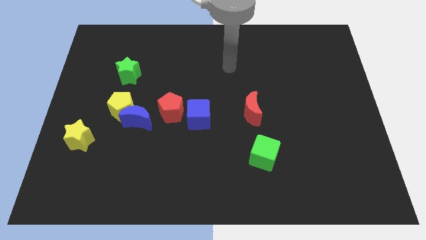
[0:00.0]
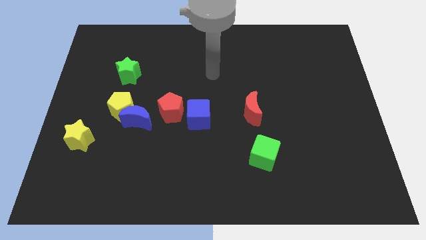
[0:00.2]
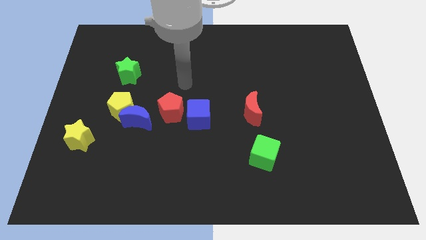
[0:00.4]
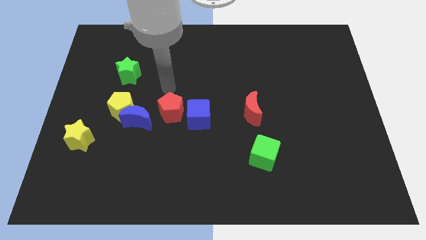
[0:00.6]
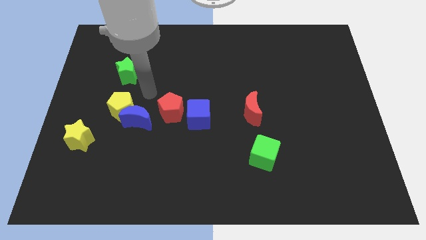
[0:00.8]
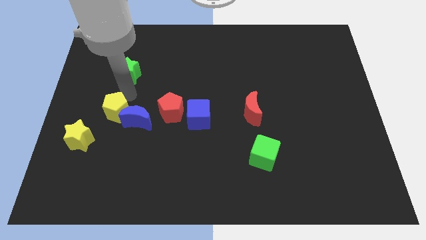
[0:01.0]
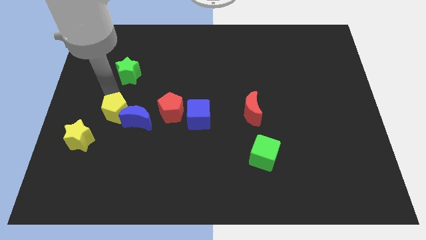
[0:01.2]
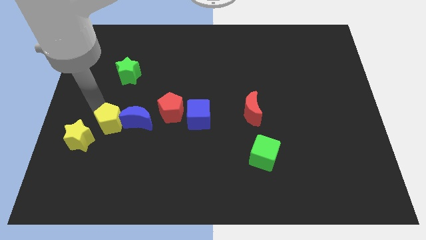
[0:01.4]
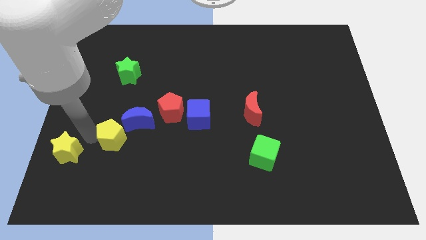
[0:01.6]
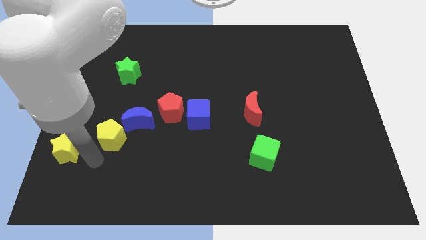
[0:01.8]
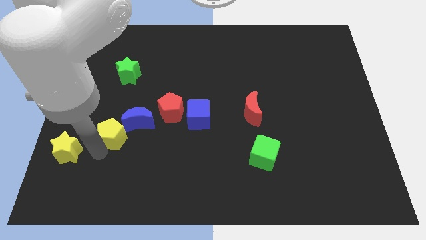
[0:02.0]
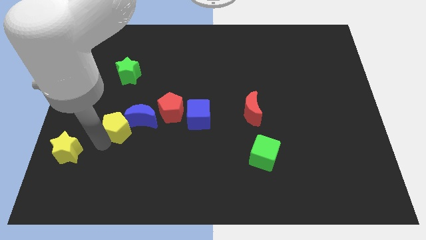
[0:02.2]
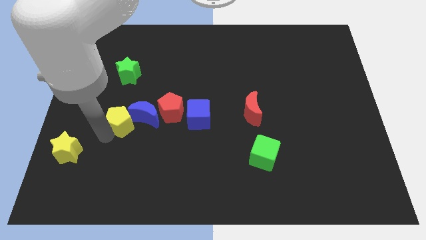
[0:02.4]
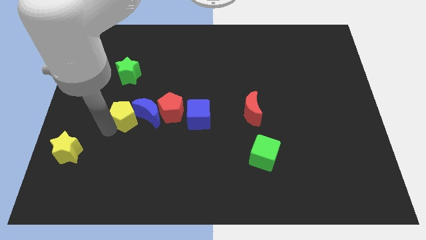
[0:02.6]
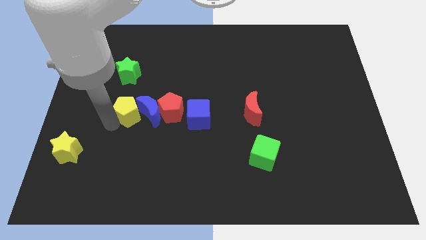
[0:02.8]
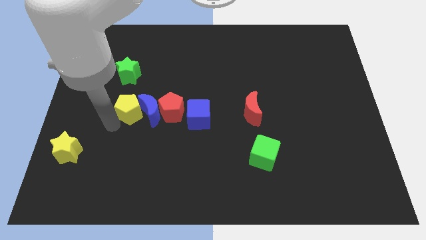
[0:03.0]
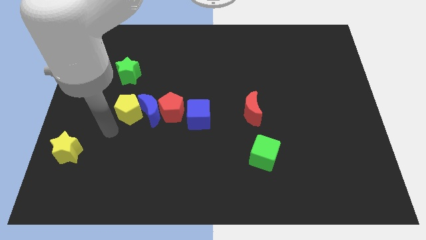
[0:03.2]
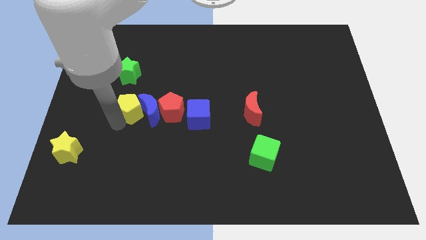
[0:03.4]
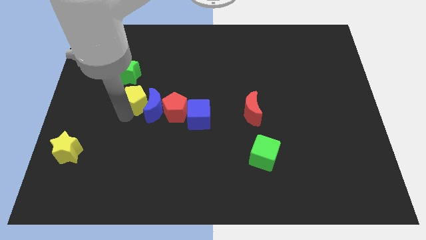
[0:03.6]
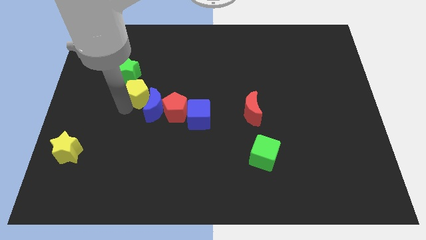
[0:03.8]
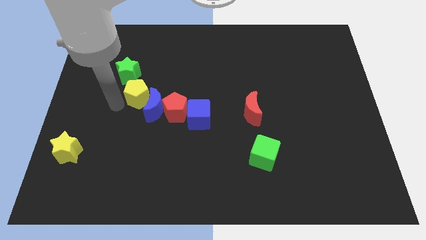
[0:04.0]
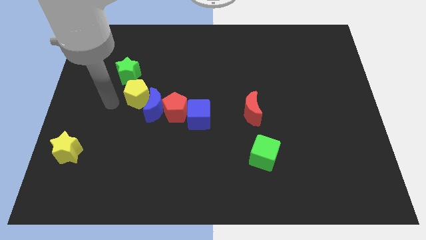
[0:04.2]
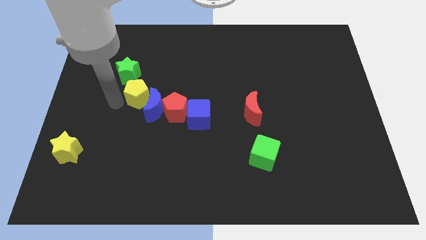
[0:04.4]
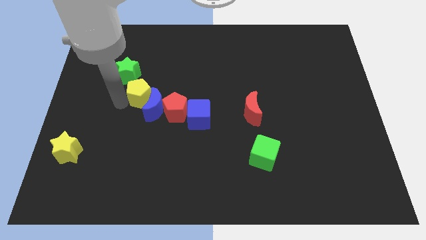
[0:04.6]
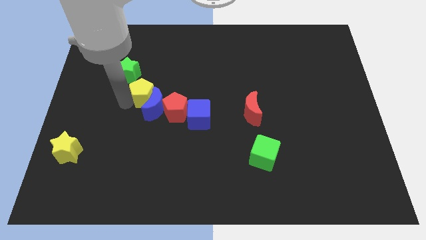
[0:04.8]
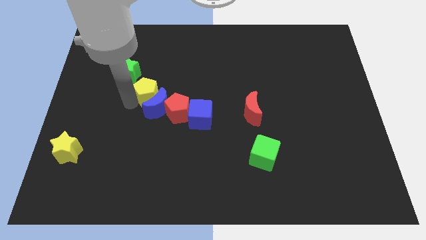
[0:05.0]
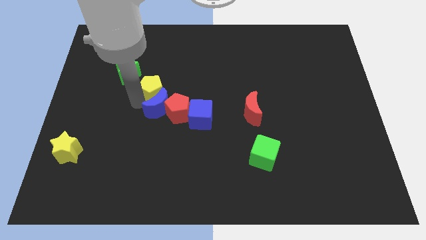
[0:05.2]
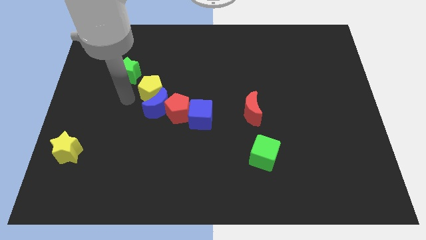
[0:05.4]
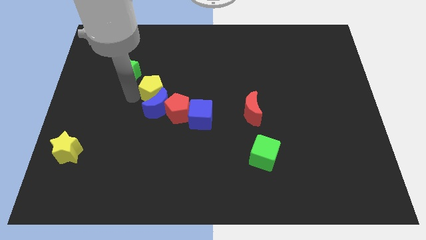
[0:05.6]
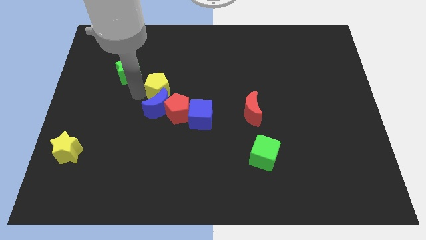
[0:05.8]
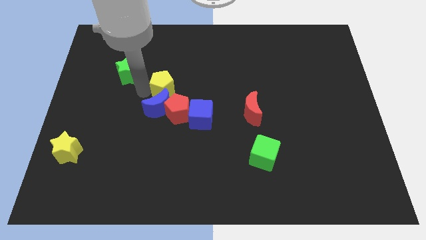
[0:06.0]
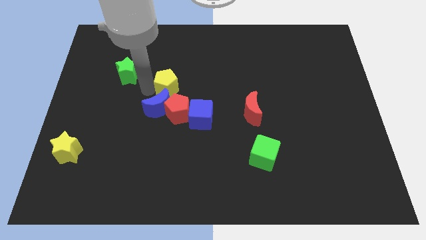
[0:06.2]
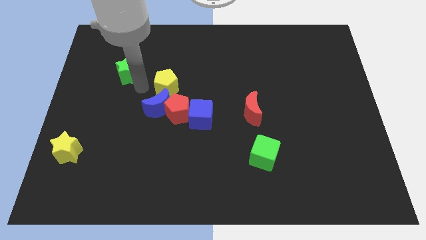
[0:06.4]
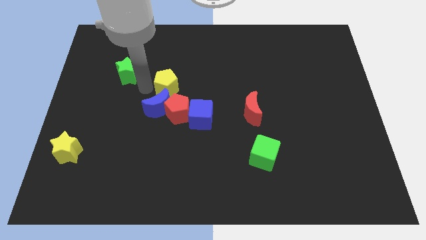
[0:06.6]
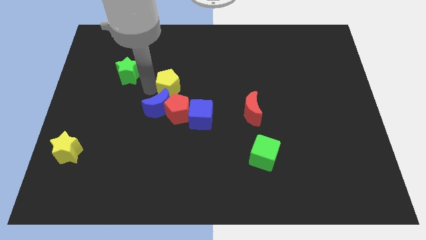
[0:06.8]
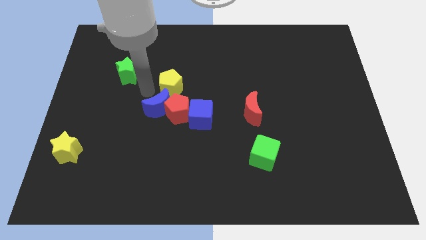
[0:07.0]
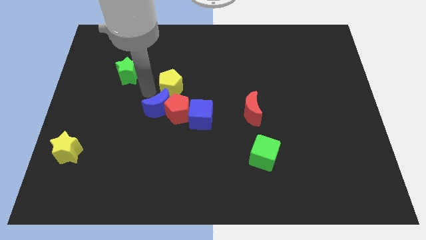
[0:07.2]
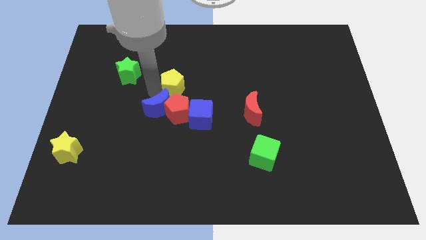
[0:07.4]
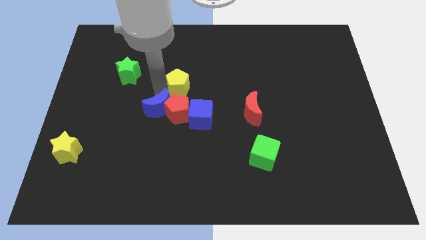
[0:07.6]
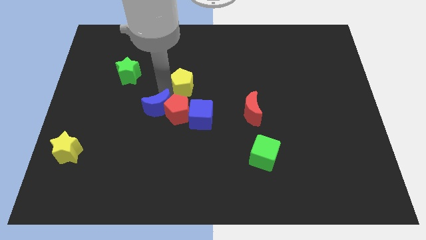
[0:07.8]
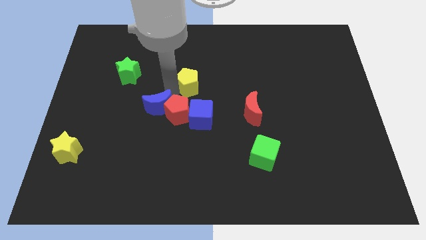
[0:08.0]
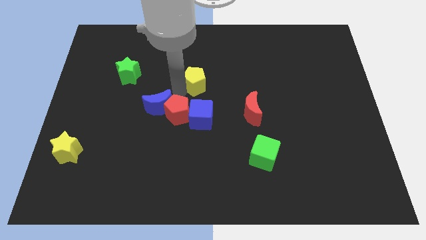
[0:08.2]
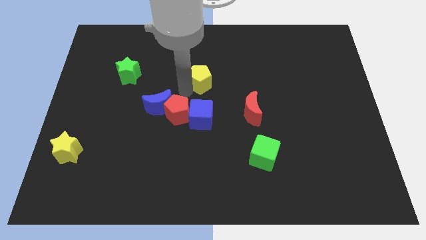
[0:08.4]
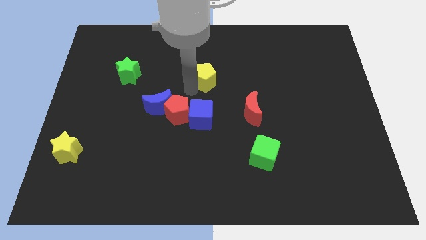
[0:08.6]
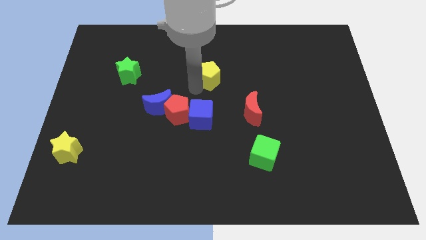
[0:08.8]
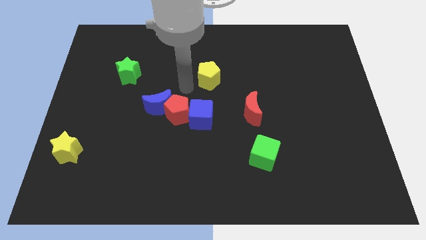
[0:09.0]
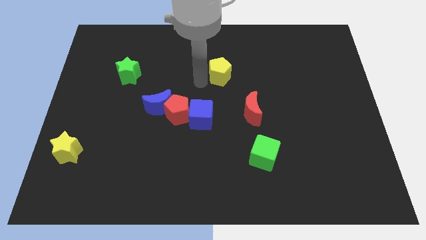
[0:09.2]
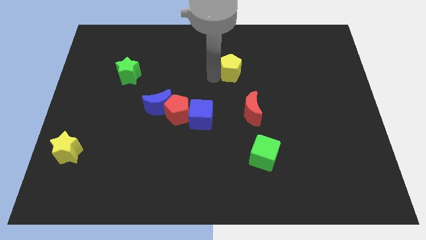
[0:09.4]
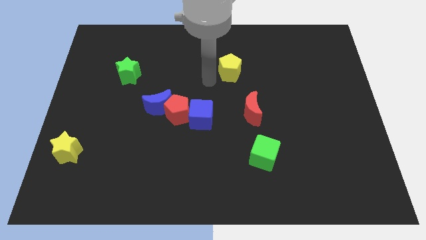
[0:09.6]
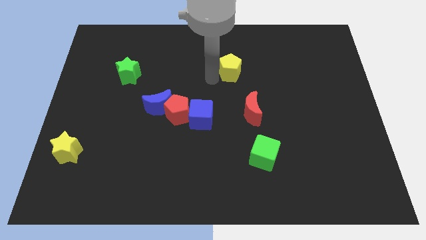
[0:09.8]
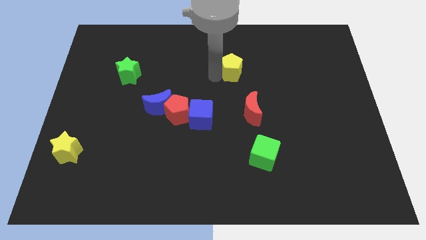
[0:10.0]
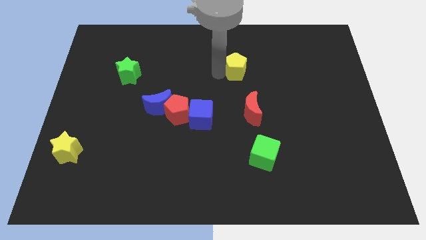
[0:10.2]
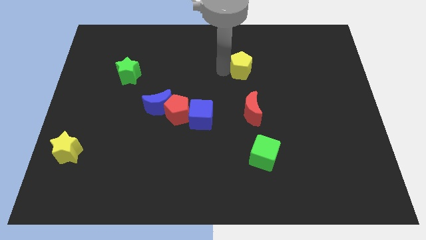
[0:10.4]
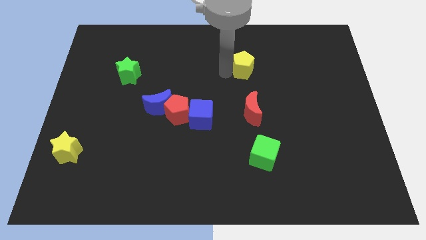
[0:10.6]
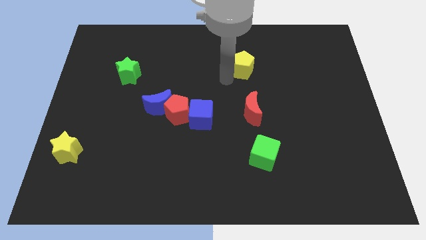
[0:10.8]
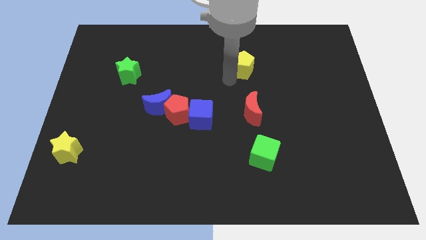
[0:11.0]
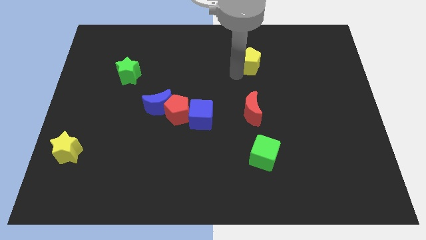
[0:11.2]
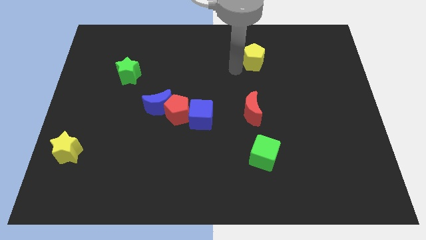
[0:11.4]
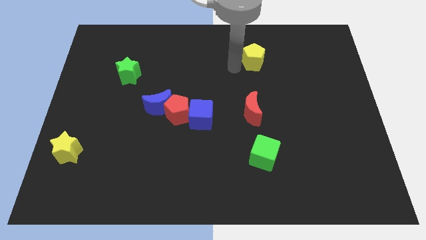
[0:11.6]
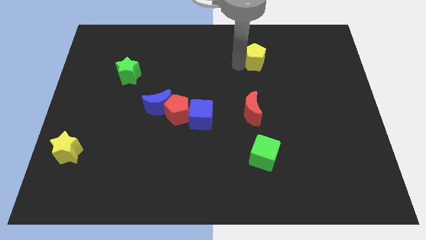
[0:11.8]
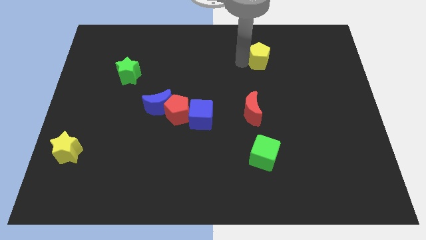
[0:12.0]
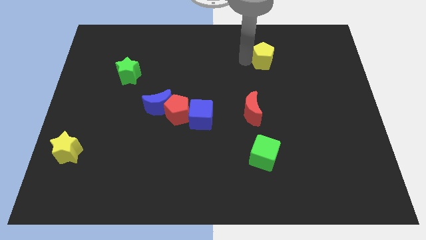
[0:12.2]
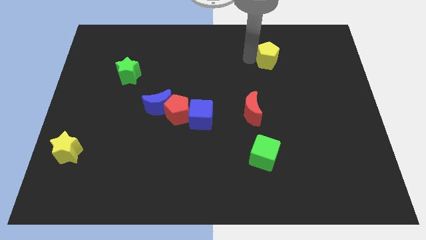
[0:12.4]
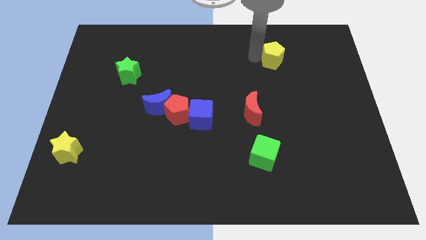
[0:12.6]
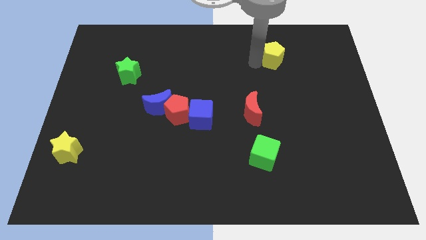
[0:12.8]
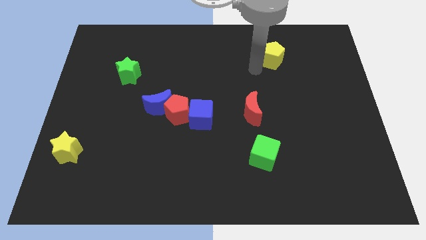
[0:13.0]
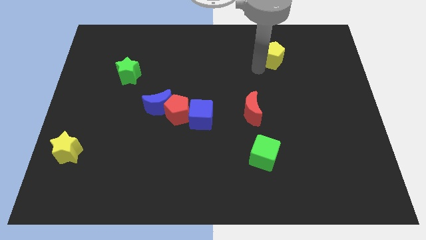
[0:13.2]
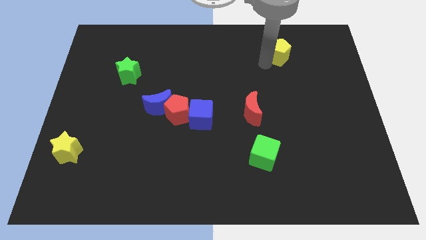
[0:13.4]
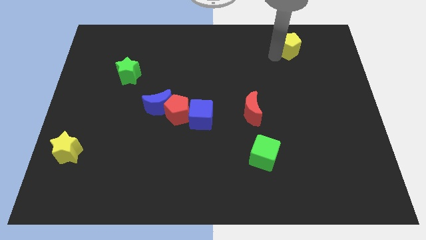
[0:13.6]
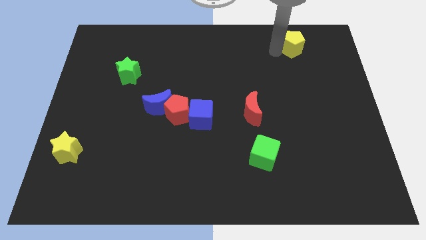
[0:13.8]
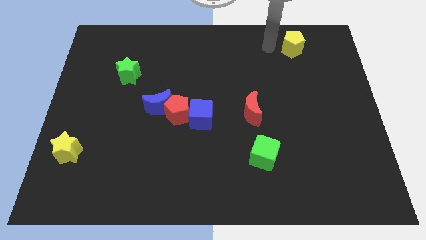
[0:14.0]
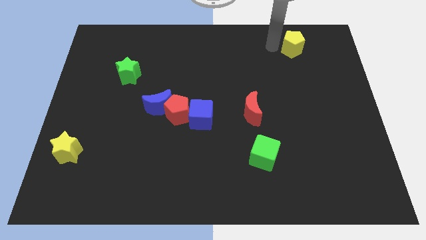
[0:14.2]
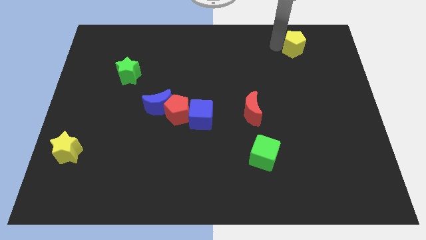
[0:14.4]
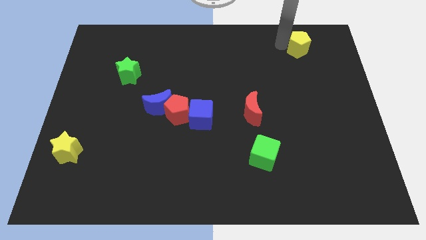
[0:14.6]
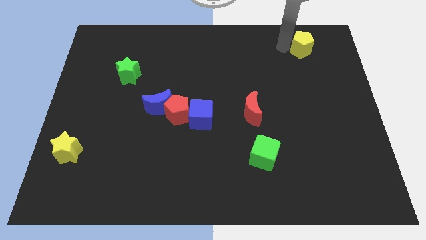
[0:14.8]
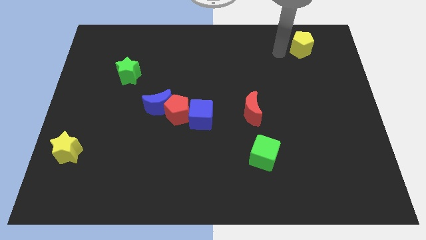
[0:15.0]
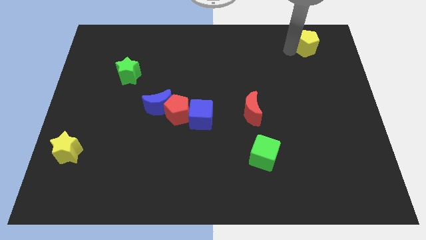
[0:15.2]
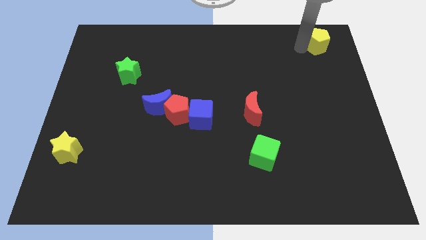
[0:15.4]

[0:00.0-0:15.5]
put the yellow pentagon to the top right corner
